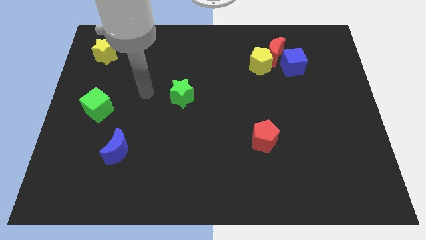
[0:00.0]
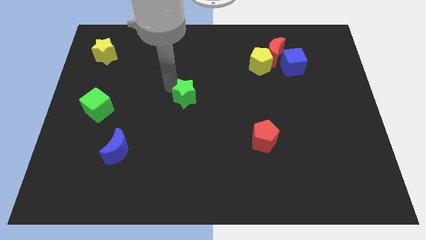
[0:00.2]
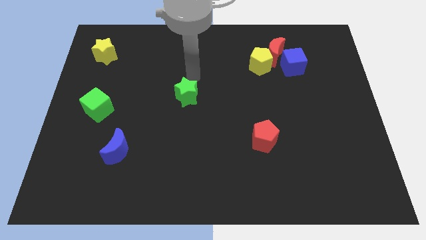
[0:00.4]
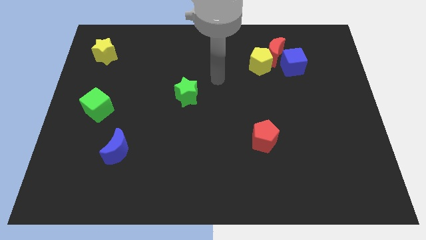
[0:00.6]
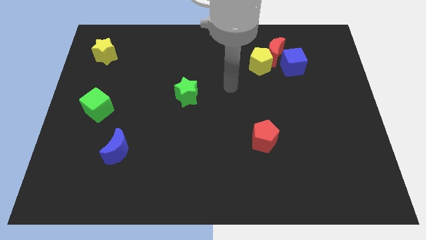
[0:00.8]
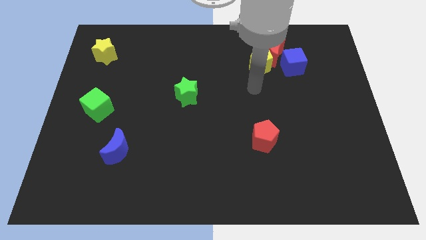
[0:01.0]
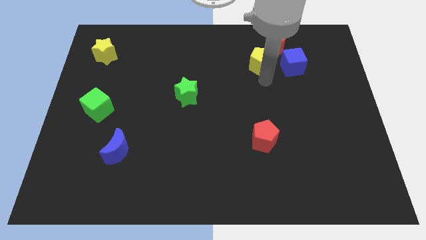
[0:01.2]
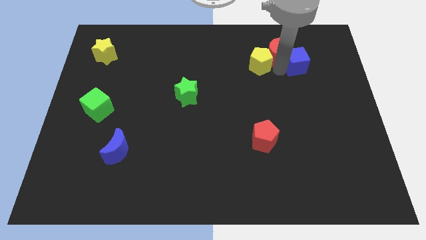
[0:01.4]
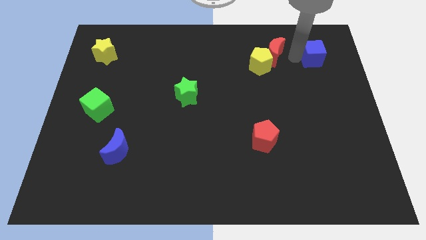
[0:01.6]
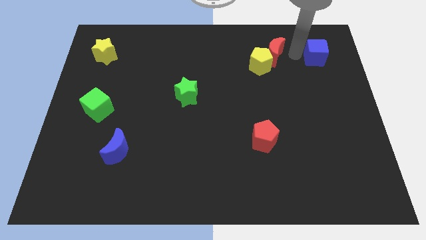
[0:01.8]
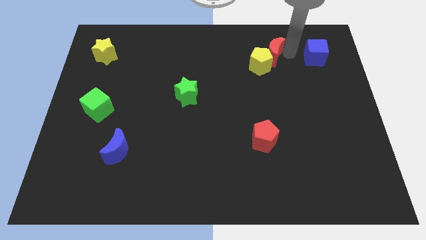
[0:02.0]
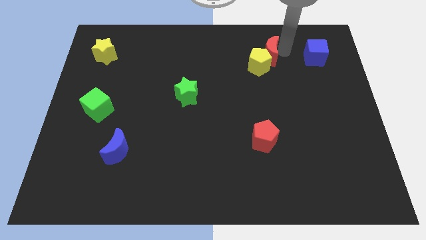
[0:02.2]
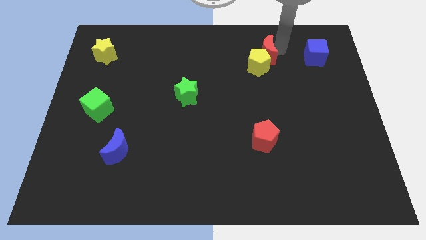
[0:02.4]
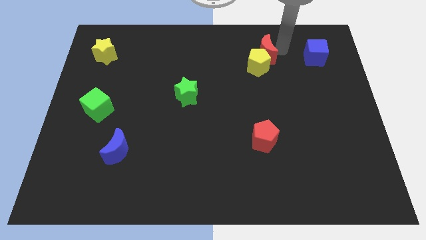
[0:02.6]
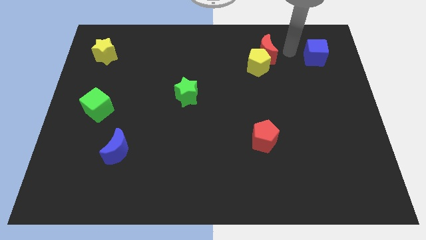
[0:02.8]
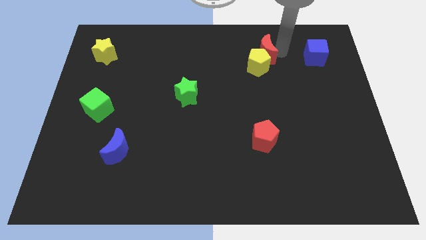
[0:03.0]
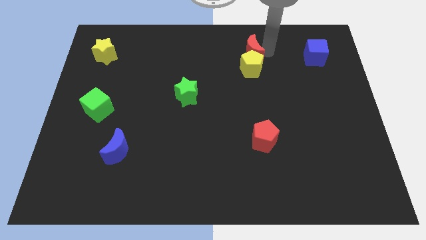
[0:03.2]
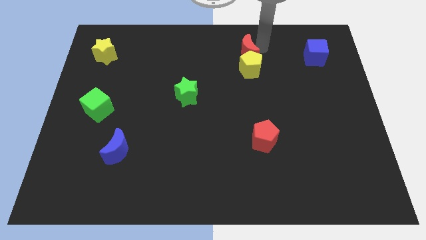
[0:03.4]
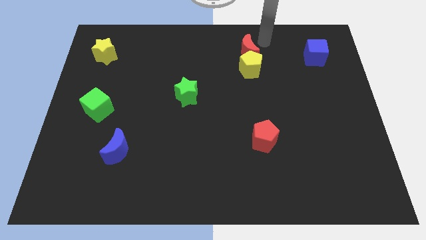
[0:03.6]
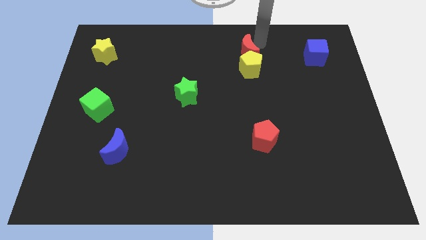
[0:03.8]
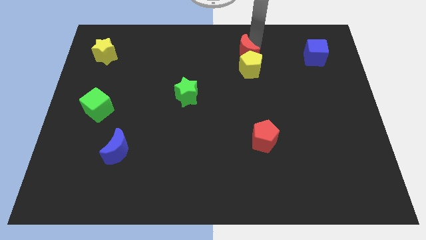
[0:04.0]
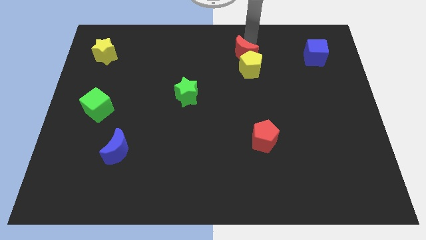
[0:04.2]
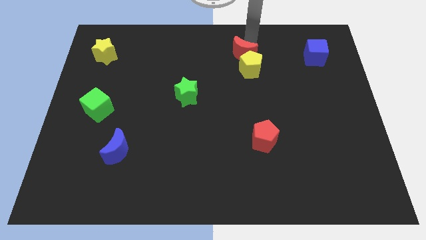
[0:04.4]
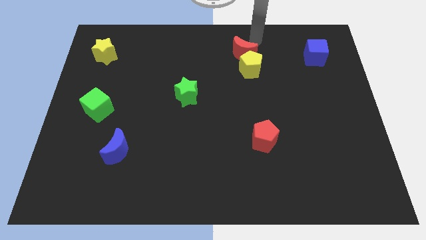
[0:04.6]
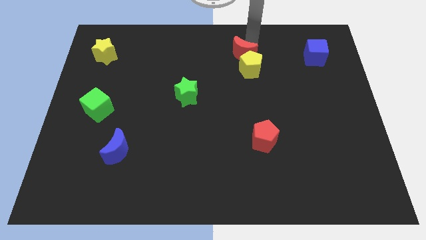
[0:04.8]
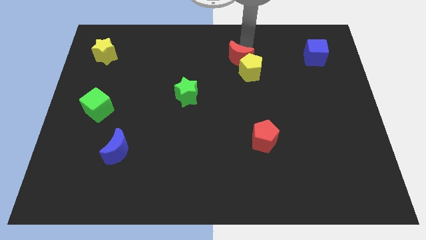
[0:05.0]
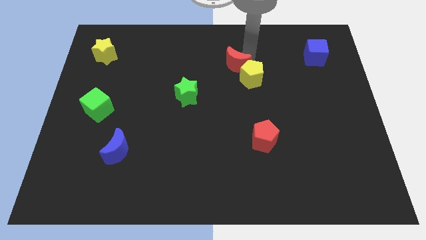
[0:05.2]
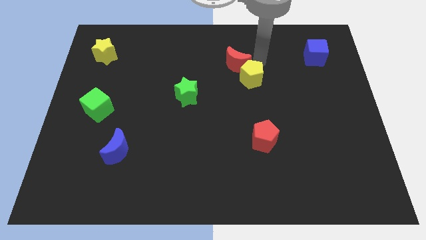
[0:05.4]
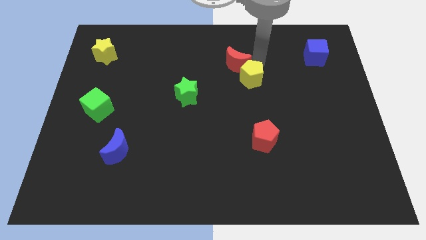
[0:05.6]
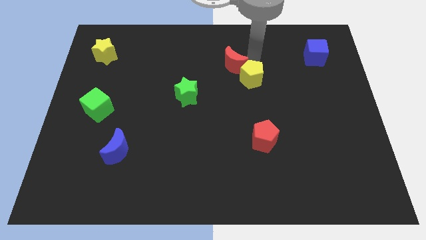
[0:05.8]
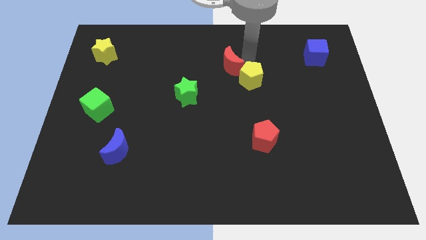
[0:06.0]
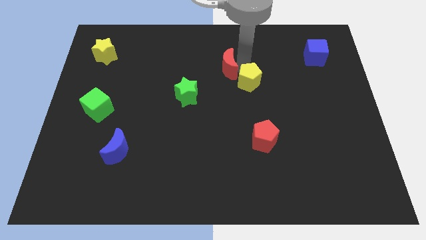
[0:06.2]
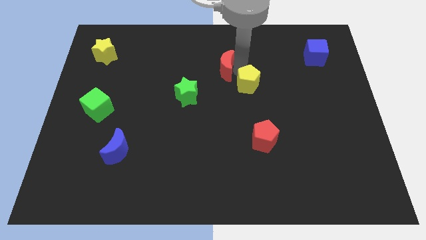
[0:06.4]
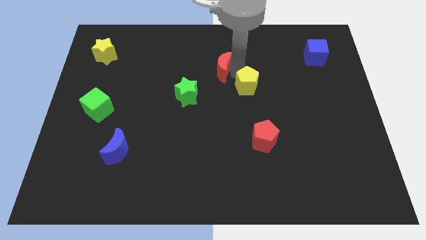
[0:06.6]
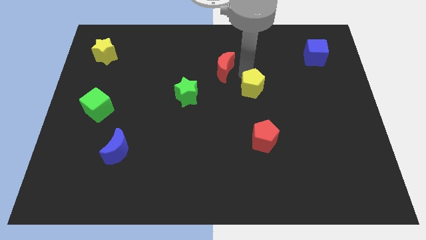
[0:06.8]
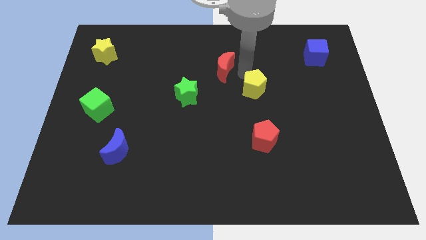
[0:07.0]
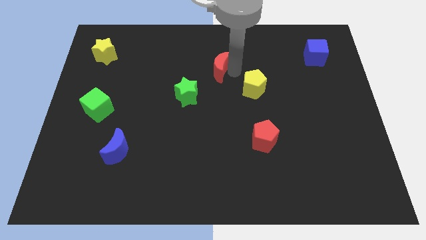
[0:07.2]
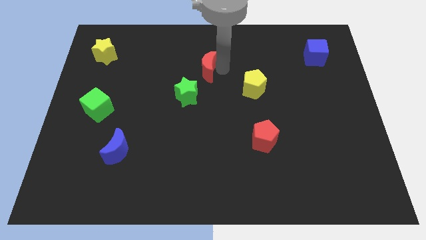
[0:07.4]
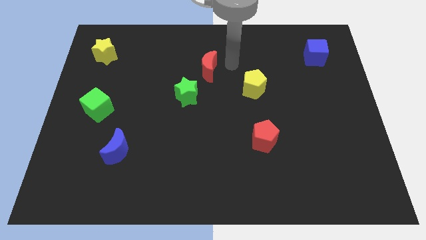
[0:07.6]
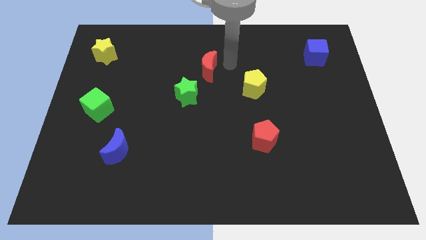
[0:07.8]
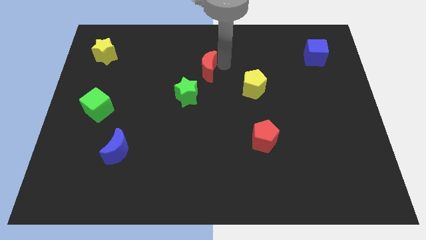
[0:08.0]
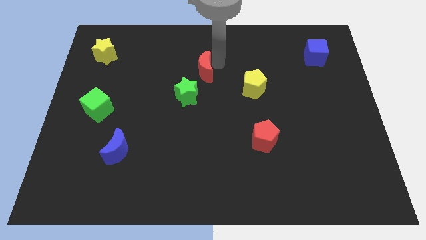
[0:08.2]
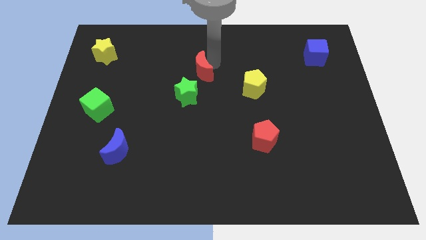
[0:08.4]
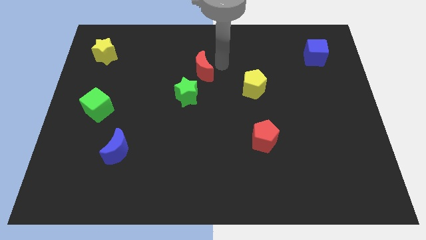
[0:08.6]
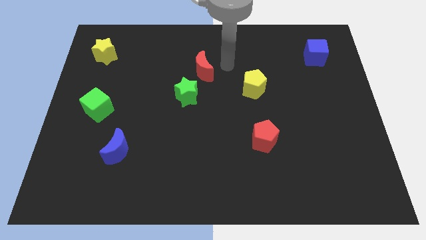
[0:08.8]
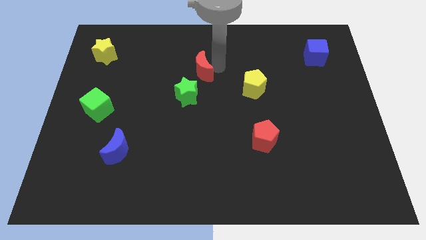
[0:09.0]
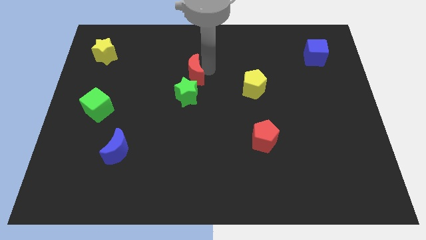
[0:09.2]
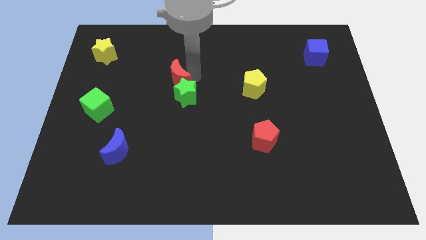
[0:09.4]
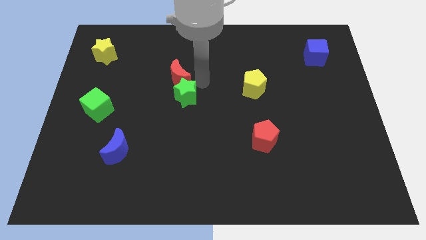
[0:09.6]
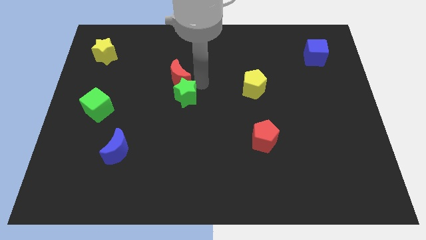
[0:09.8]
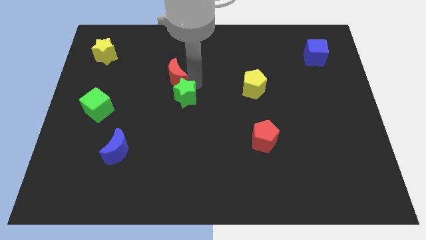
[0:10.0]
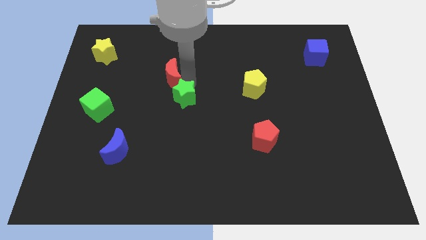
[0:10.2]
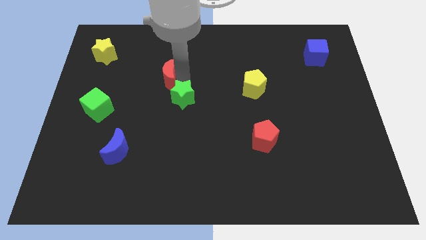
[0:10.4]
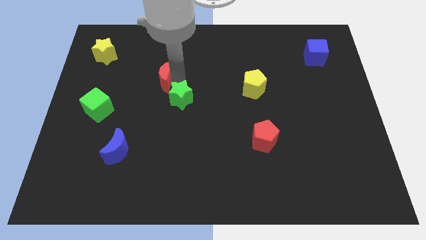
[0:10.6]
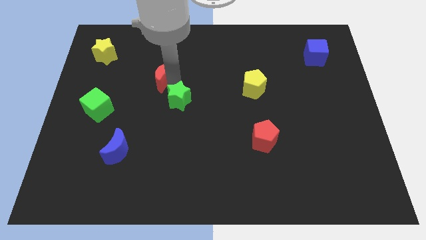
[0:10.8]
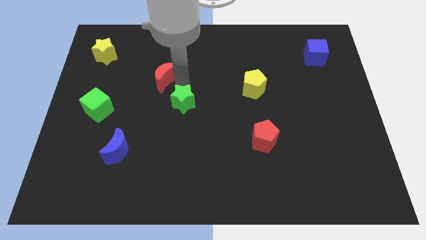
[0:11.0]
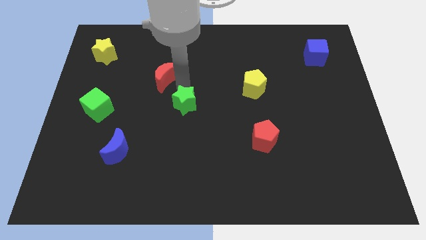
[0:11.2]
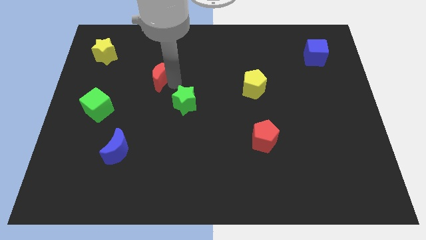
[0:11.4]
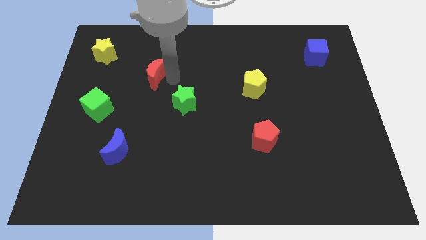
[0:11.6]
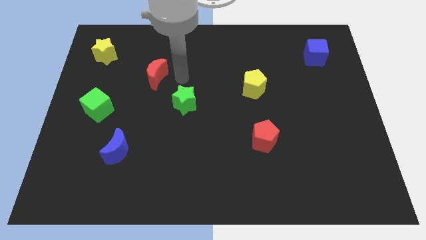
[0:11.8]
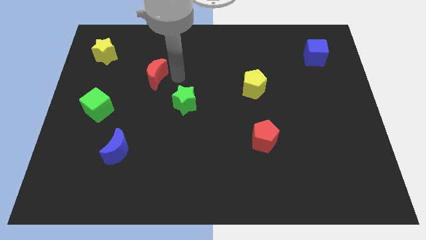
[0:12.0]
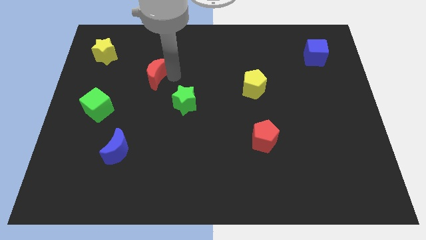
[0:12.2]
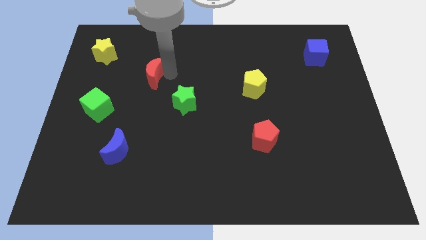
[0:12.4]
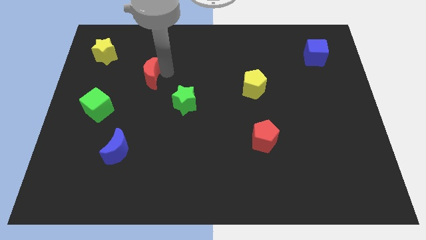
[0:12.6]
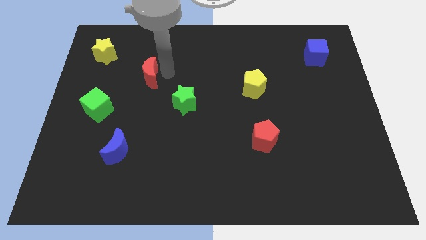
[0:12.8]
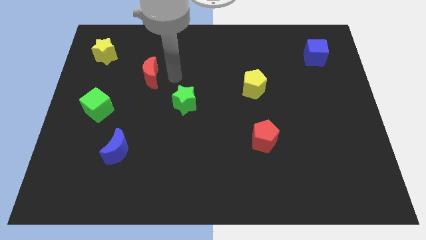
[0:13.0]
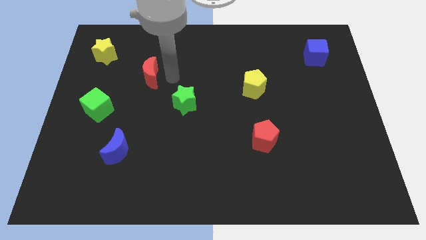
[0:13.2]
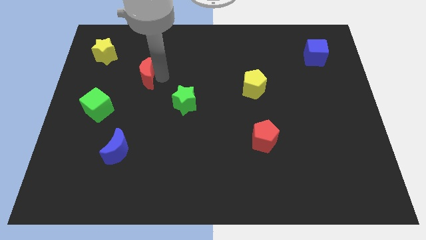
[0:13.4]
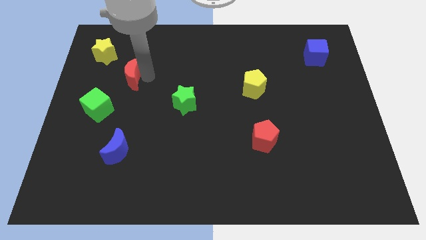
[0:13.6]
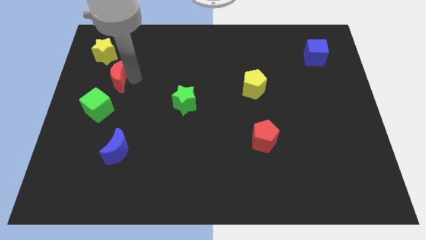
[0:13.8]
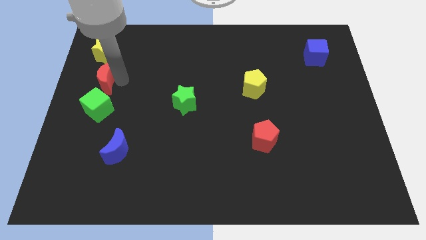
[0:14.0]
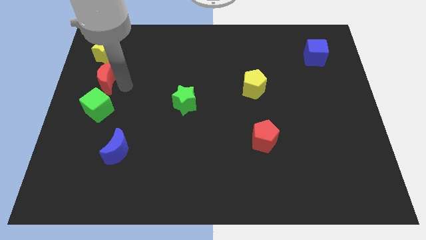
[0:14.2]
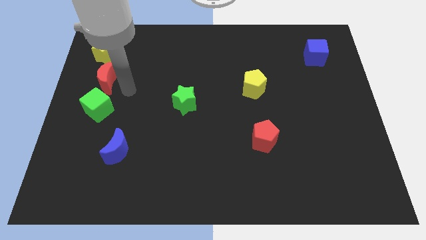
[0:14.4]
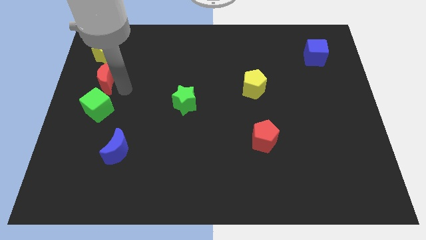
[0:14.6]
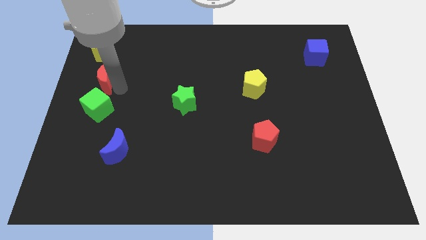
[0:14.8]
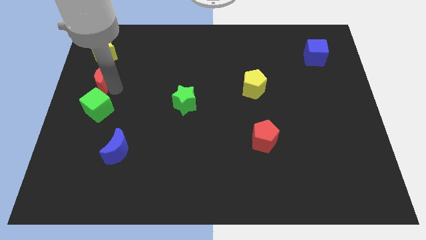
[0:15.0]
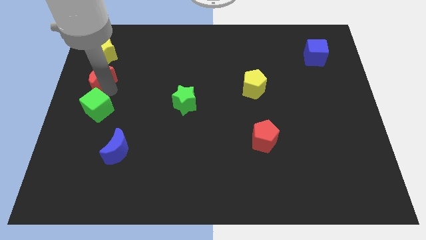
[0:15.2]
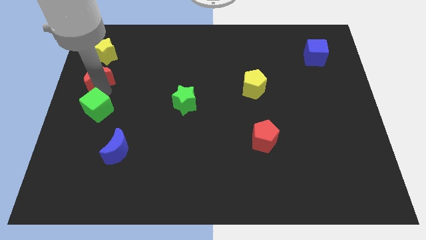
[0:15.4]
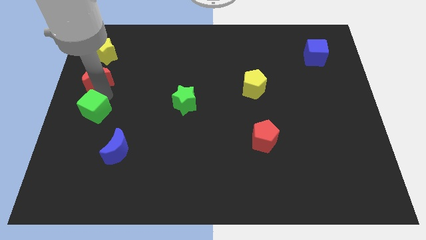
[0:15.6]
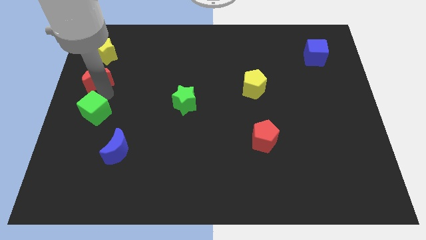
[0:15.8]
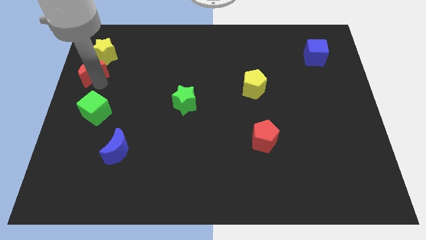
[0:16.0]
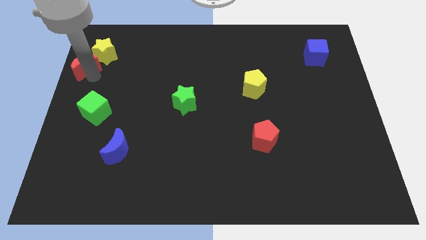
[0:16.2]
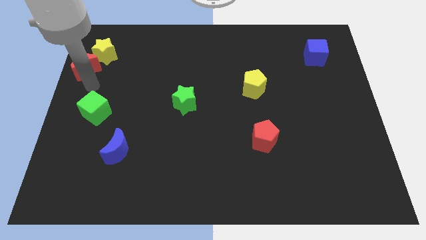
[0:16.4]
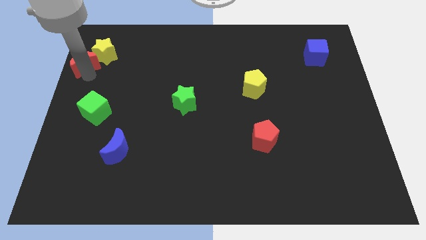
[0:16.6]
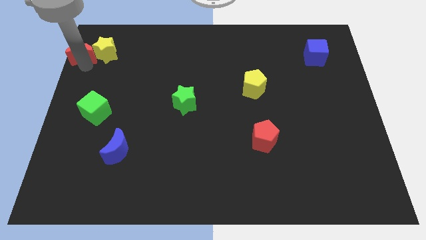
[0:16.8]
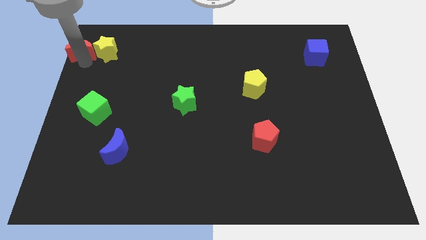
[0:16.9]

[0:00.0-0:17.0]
put the red moon to the top left of the board
